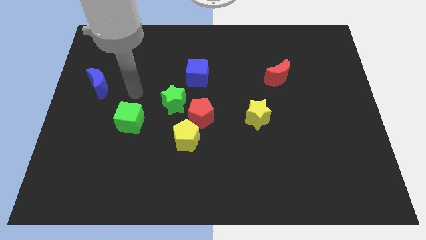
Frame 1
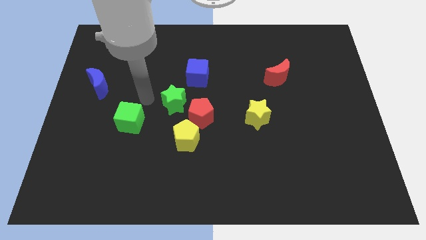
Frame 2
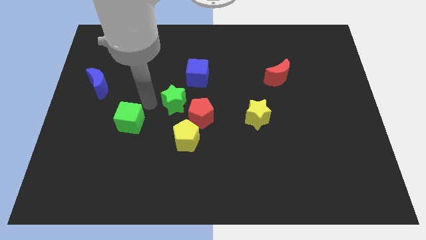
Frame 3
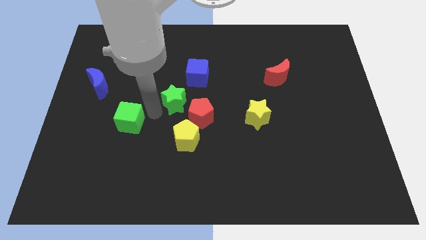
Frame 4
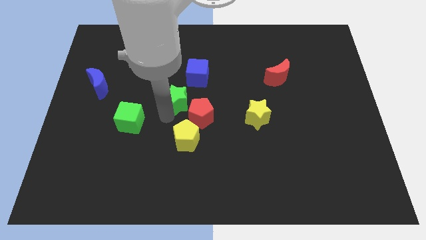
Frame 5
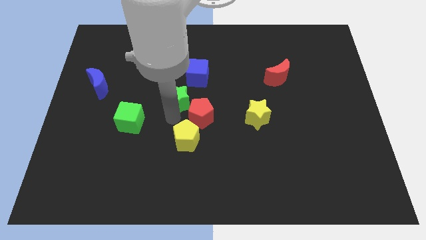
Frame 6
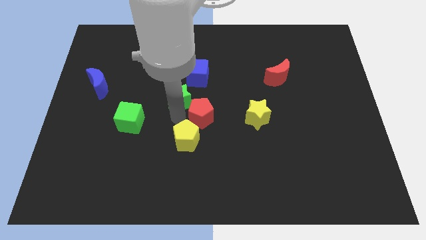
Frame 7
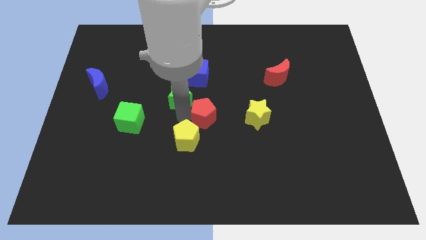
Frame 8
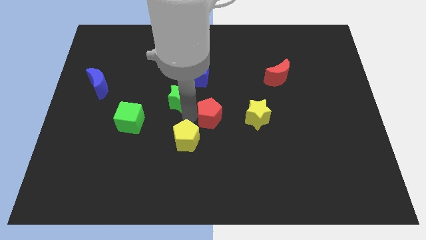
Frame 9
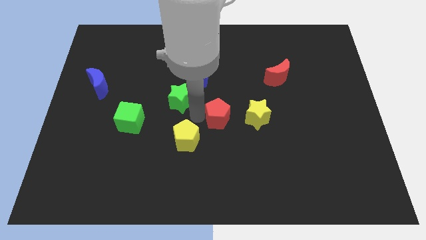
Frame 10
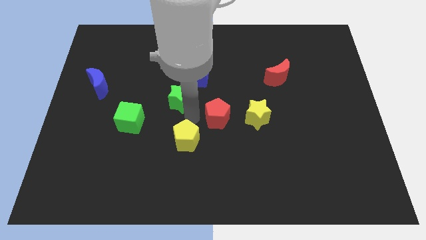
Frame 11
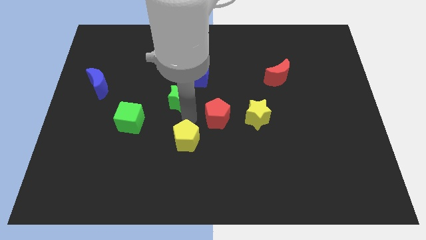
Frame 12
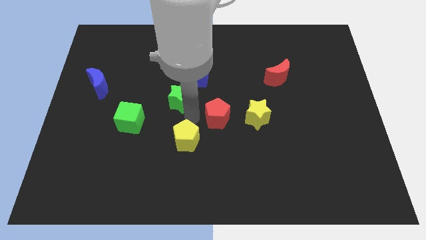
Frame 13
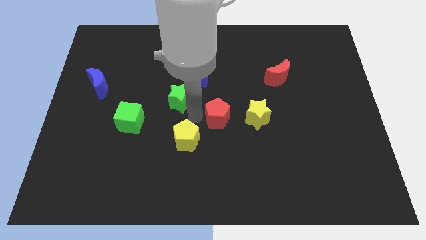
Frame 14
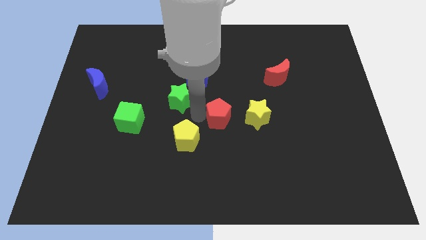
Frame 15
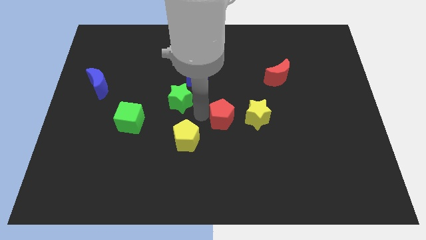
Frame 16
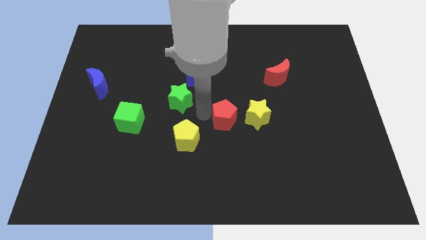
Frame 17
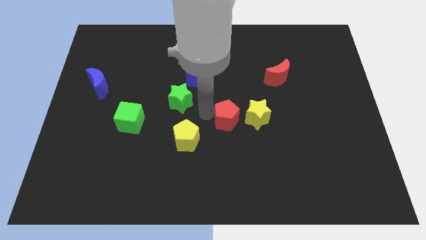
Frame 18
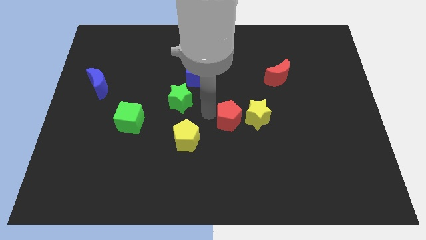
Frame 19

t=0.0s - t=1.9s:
separate the red pentagon from the green star and yellow pentagon

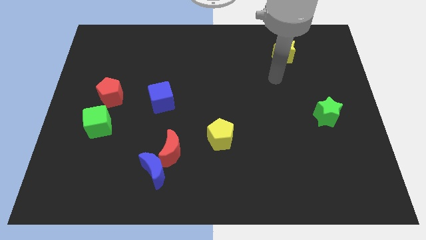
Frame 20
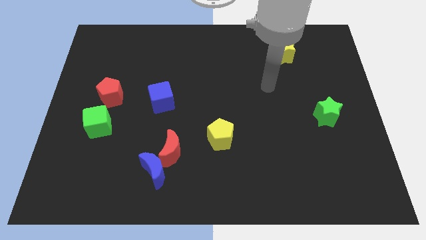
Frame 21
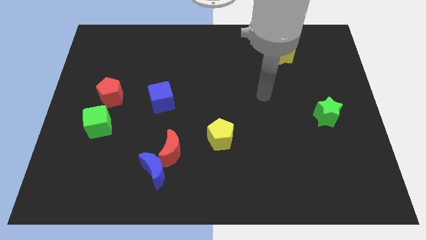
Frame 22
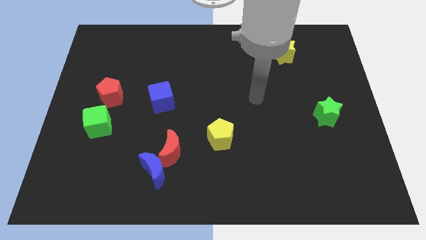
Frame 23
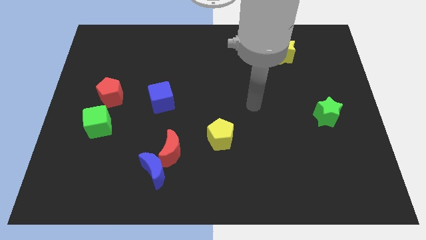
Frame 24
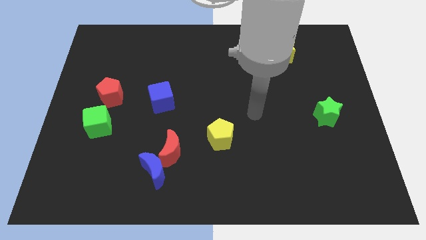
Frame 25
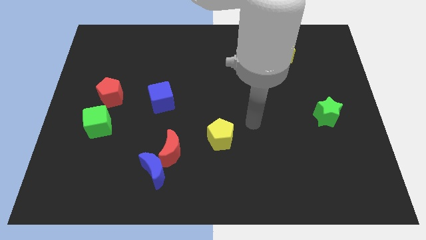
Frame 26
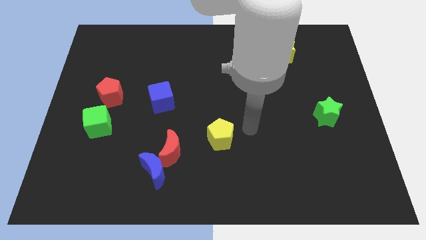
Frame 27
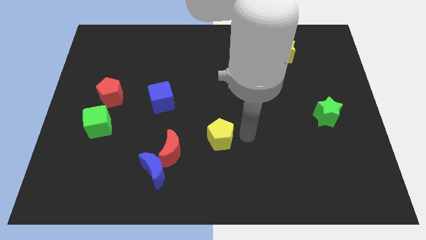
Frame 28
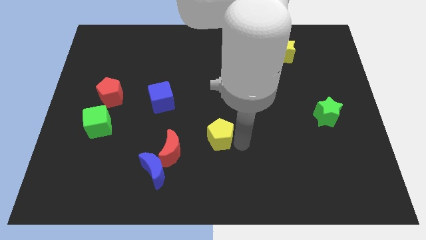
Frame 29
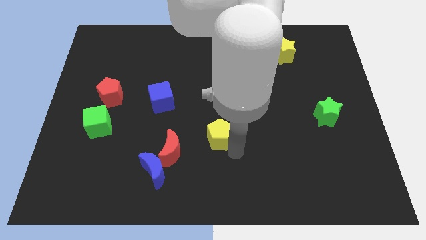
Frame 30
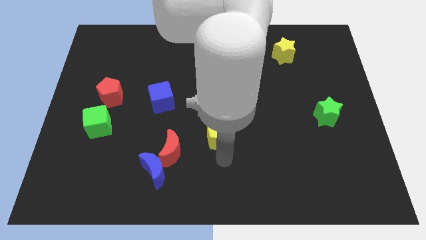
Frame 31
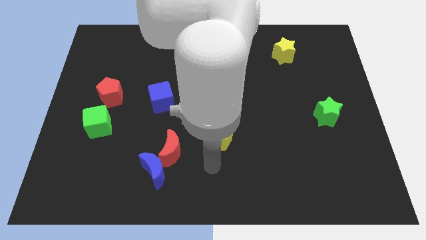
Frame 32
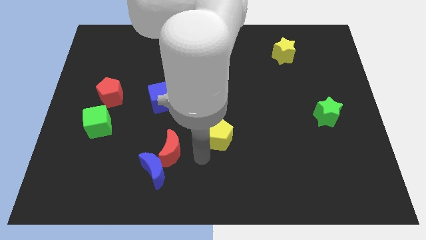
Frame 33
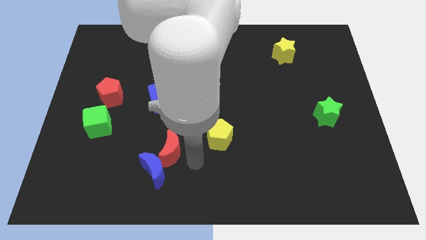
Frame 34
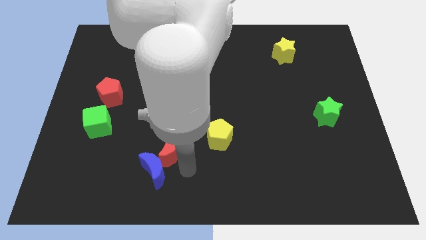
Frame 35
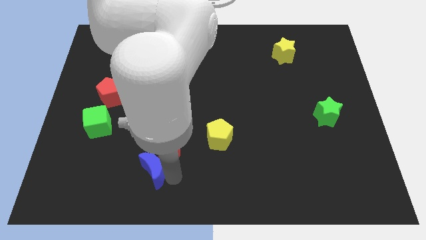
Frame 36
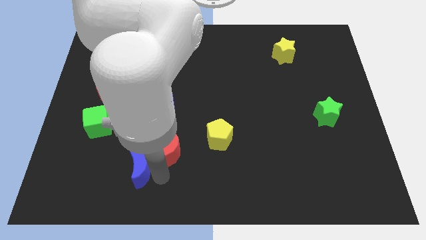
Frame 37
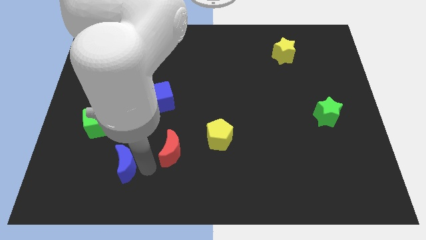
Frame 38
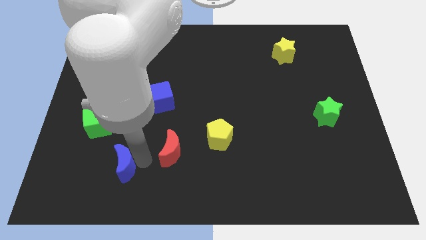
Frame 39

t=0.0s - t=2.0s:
move the red moon away from the blue moon

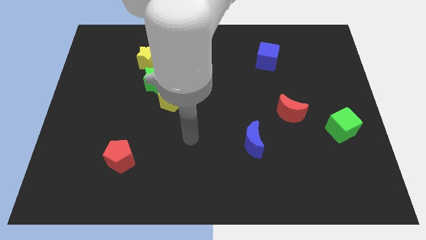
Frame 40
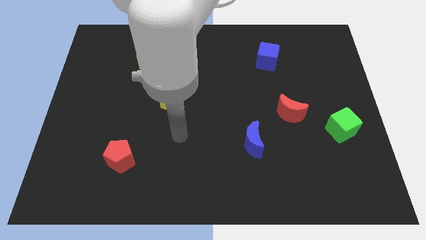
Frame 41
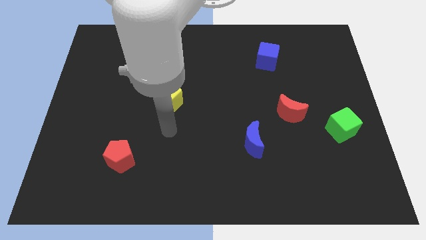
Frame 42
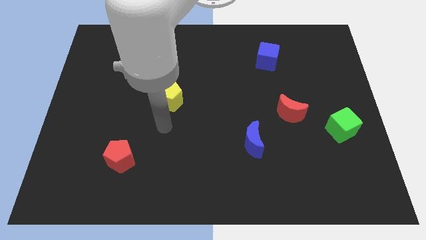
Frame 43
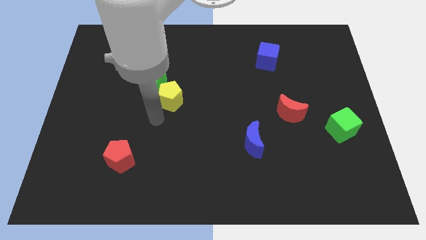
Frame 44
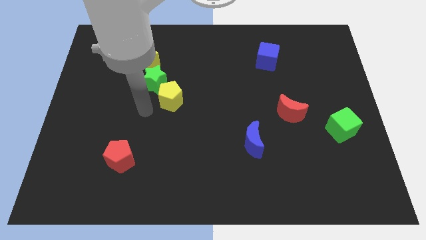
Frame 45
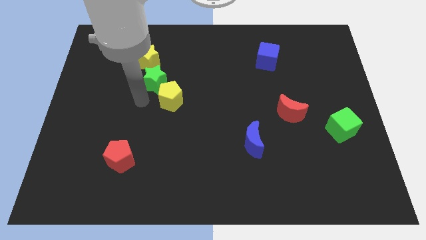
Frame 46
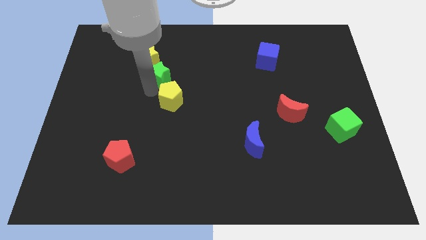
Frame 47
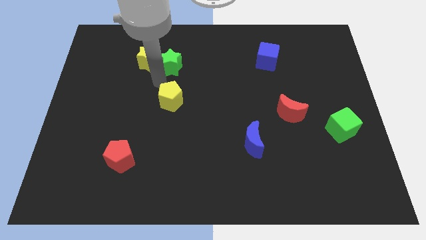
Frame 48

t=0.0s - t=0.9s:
pull the yellow pentagon apart from the green star

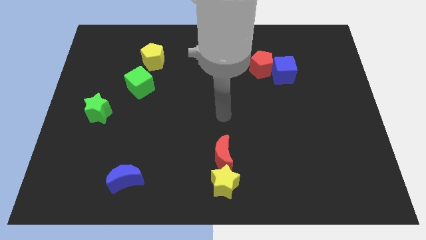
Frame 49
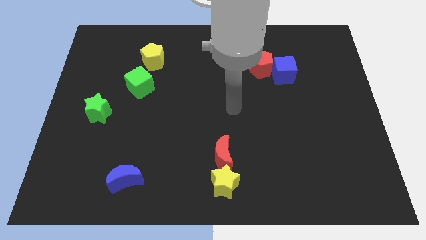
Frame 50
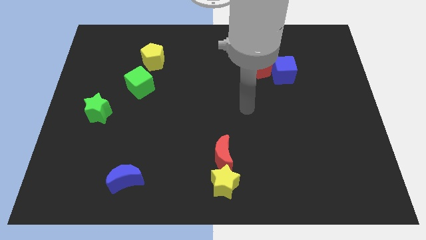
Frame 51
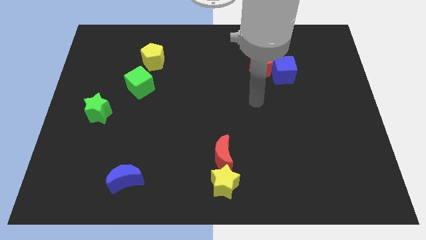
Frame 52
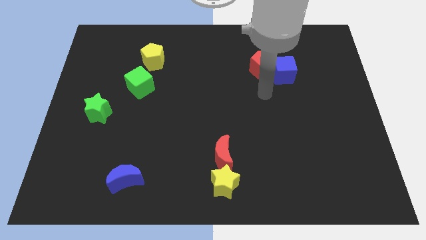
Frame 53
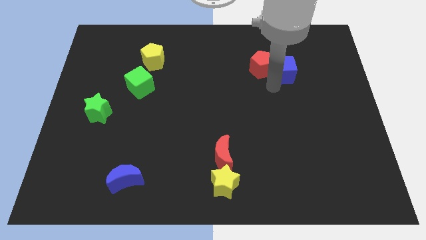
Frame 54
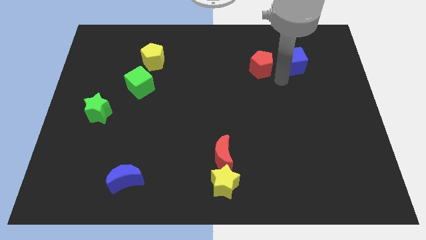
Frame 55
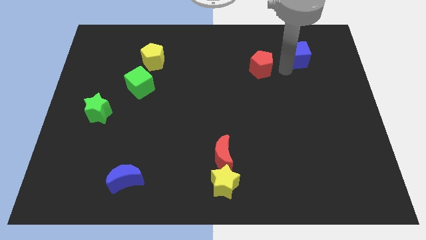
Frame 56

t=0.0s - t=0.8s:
separate the red pentagon from the blue cube

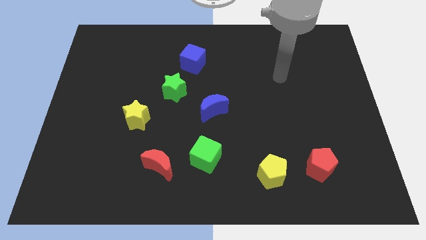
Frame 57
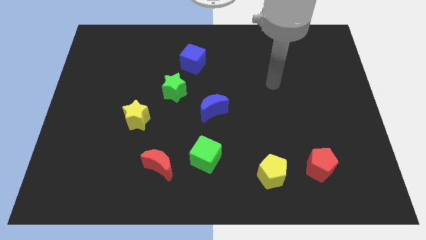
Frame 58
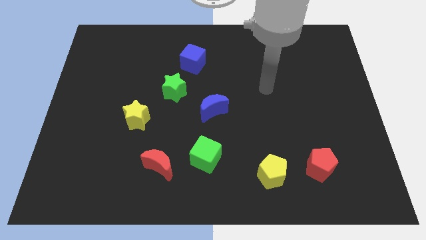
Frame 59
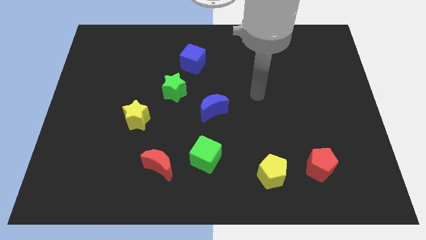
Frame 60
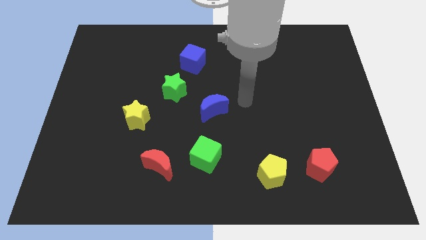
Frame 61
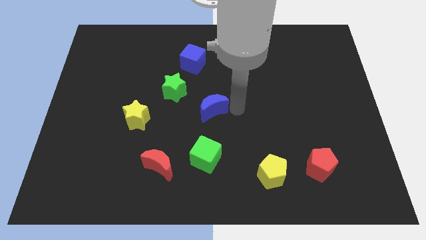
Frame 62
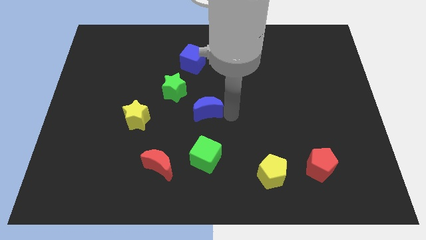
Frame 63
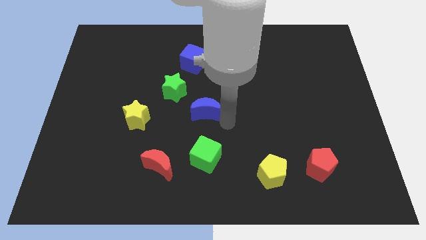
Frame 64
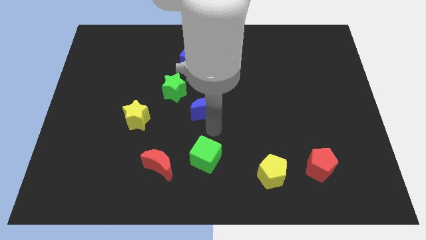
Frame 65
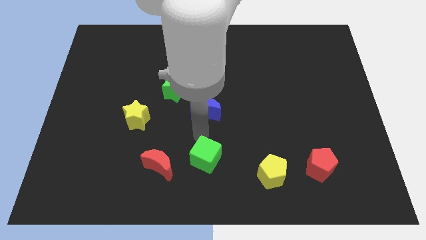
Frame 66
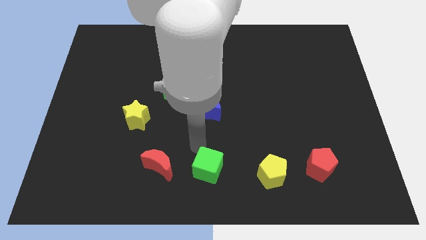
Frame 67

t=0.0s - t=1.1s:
pull the red moon apart from the green cube

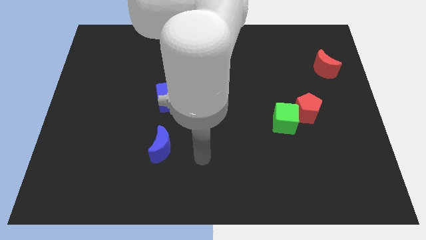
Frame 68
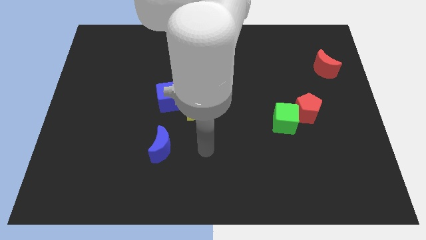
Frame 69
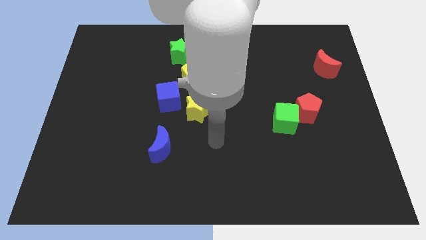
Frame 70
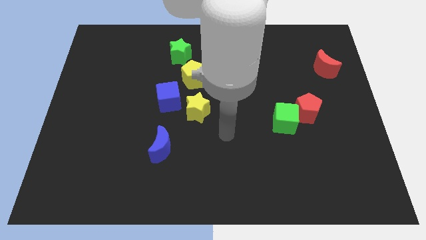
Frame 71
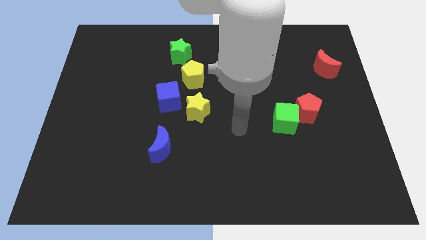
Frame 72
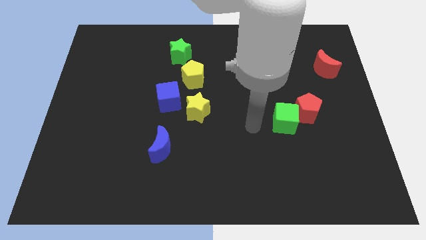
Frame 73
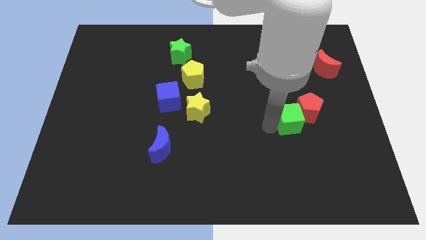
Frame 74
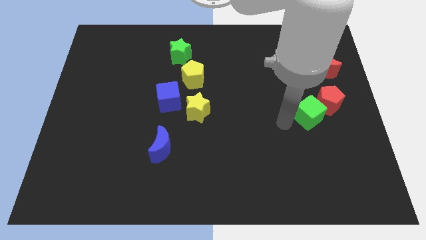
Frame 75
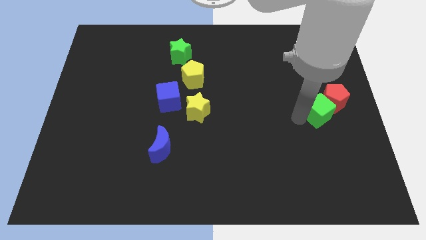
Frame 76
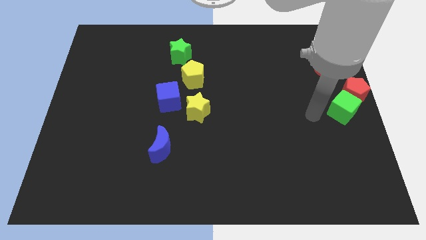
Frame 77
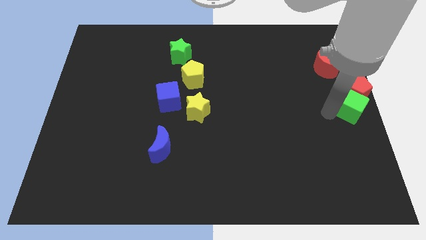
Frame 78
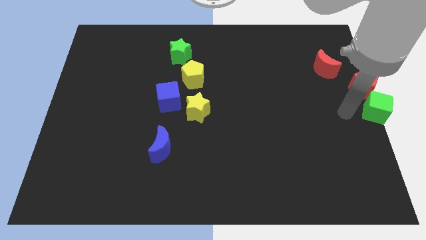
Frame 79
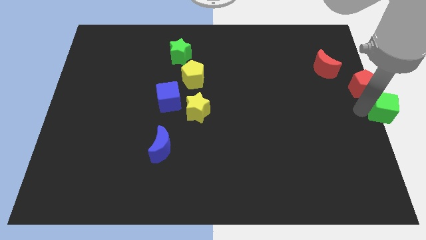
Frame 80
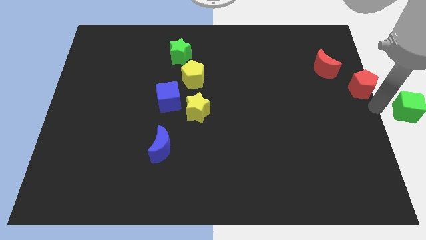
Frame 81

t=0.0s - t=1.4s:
pull the red pentagon apart from the green cube

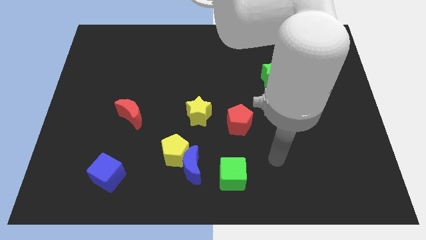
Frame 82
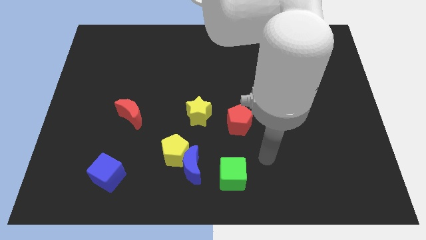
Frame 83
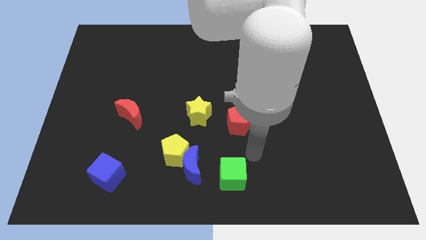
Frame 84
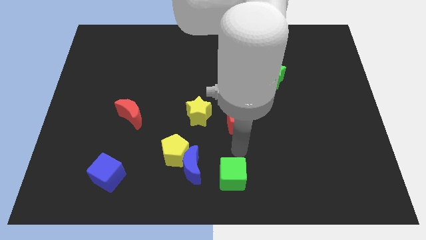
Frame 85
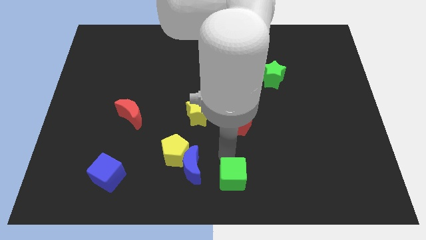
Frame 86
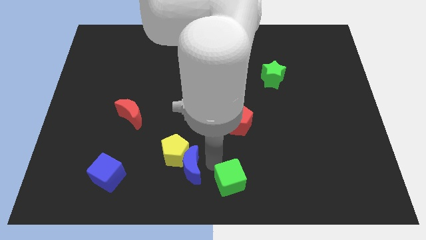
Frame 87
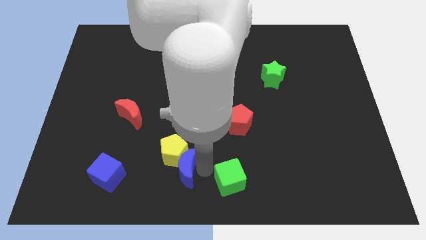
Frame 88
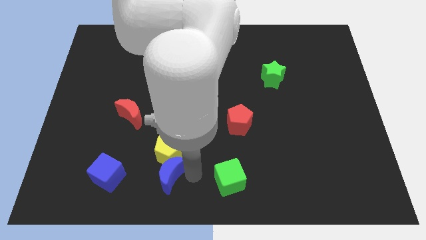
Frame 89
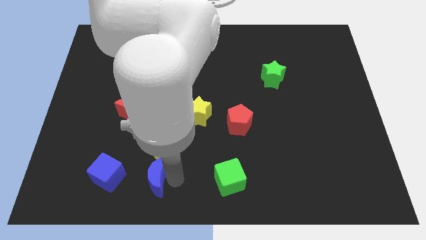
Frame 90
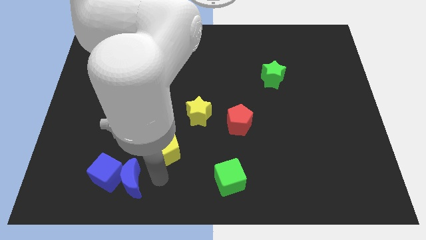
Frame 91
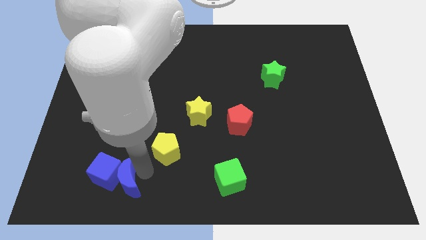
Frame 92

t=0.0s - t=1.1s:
pull the yellow pentagon apart from the blue moon

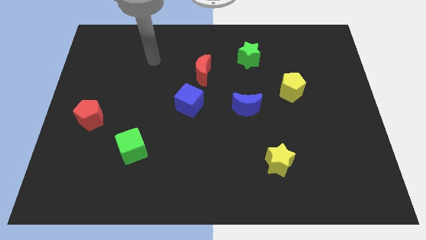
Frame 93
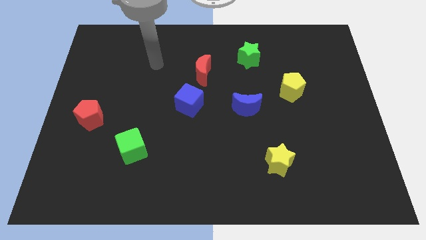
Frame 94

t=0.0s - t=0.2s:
pull the red moon apart from the blue cube
